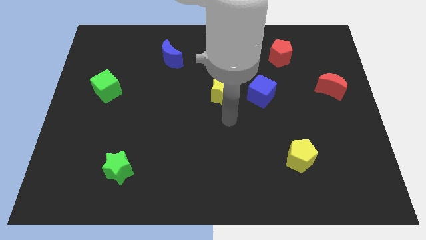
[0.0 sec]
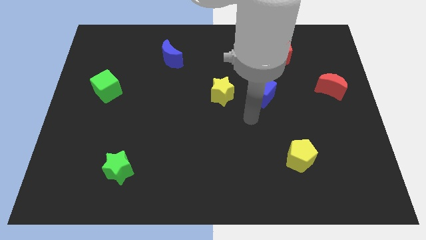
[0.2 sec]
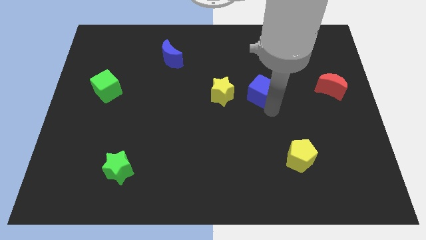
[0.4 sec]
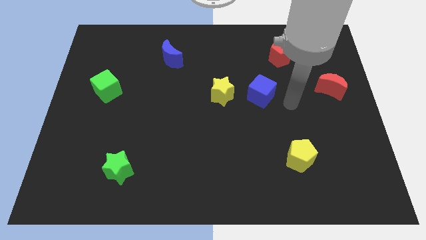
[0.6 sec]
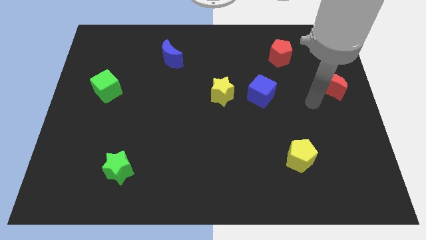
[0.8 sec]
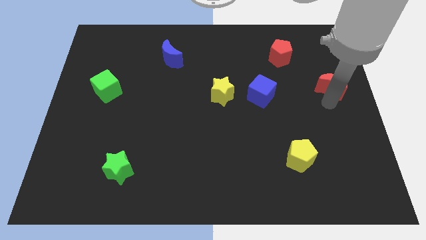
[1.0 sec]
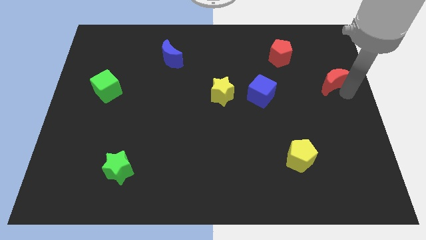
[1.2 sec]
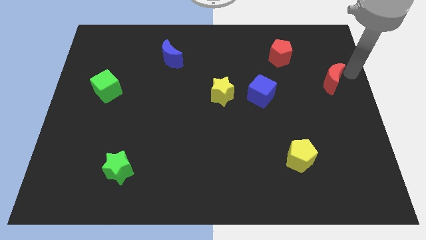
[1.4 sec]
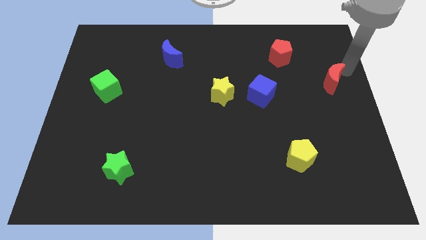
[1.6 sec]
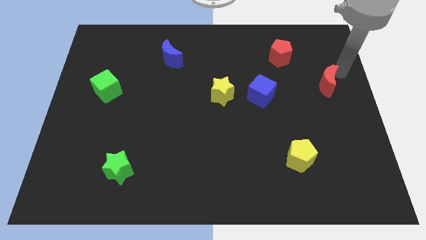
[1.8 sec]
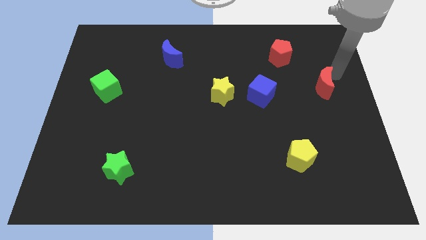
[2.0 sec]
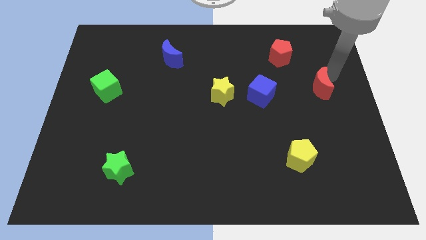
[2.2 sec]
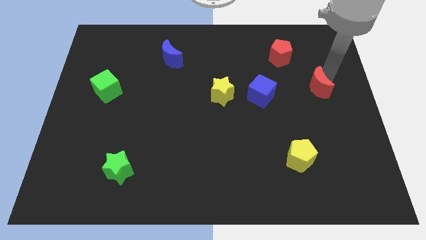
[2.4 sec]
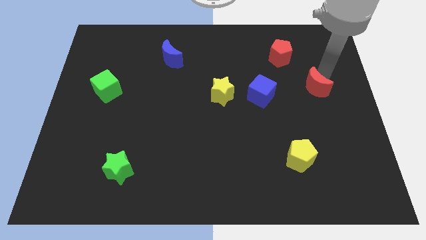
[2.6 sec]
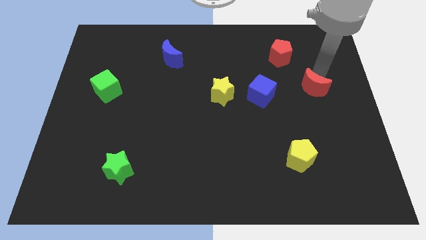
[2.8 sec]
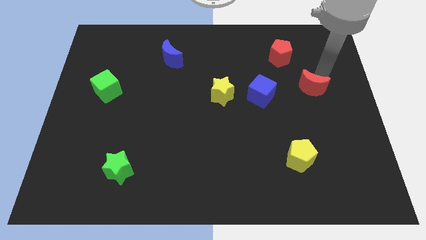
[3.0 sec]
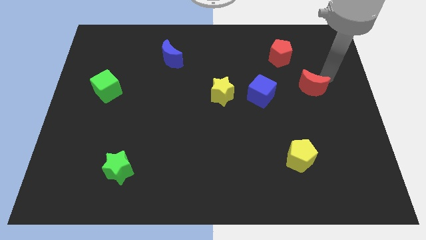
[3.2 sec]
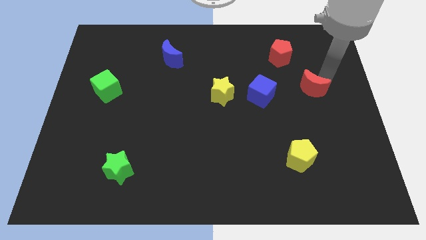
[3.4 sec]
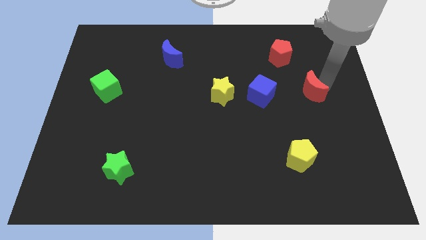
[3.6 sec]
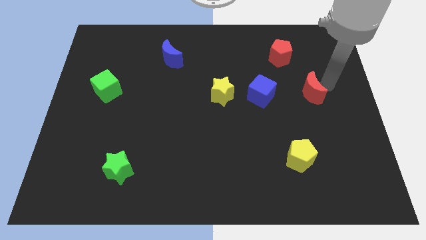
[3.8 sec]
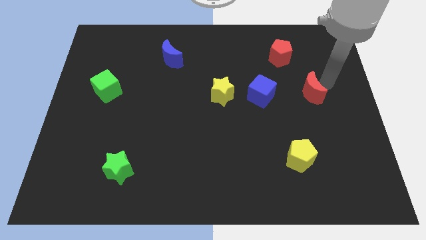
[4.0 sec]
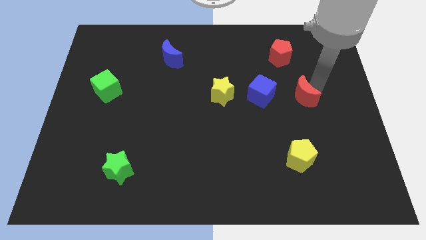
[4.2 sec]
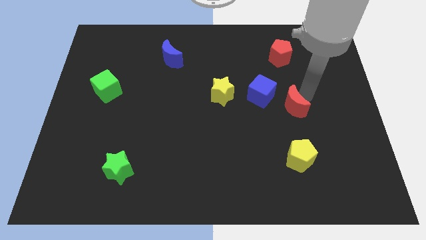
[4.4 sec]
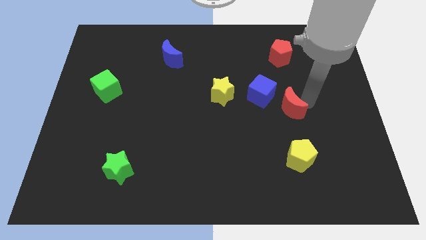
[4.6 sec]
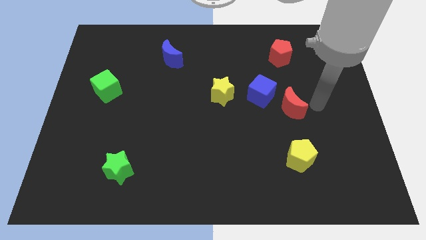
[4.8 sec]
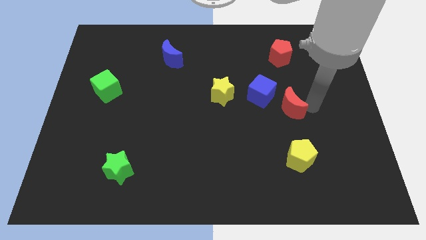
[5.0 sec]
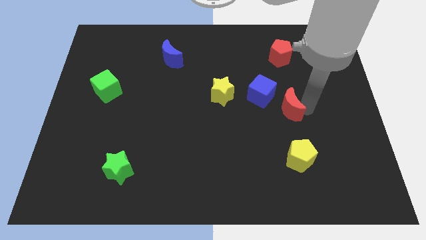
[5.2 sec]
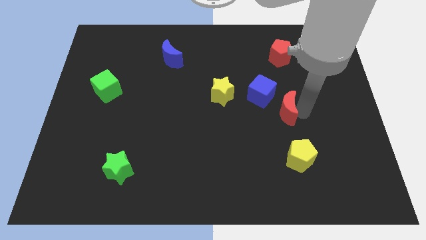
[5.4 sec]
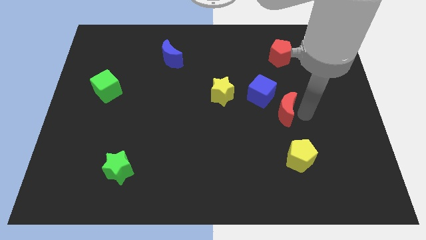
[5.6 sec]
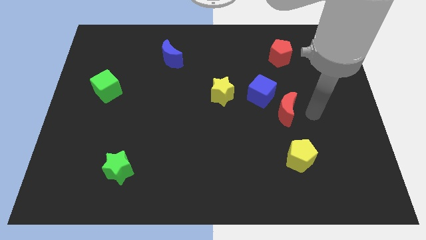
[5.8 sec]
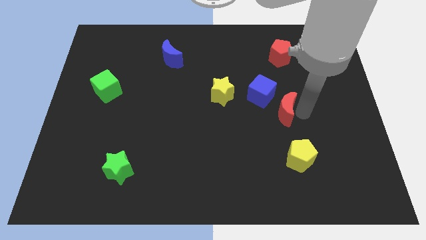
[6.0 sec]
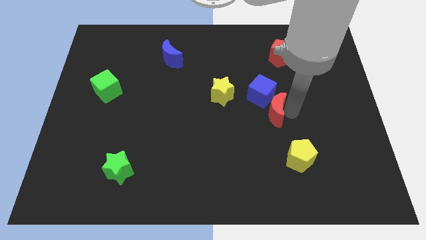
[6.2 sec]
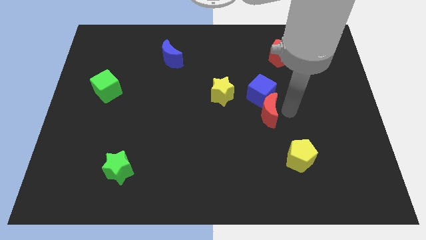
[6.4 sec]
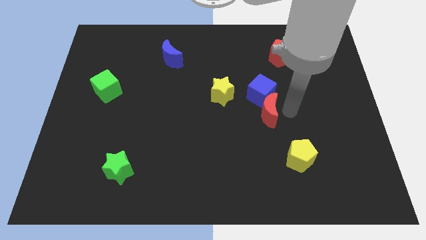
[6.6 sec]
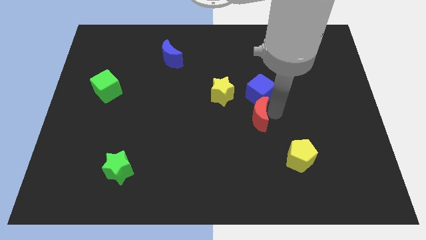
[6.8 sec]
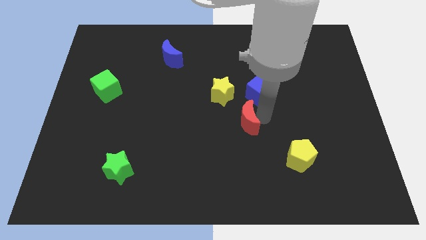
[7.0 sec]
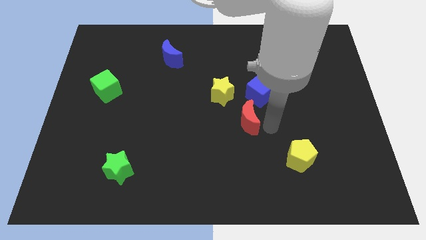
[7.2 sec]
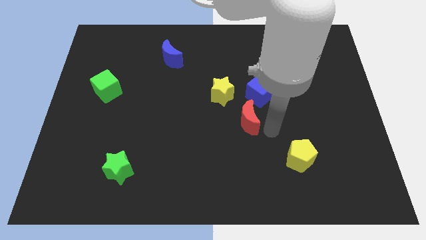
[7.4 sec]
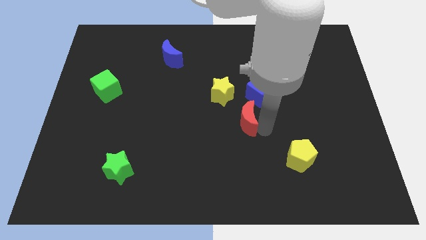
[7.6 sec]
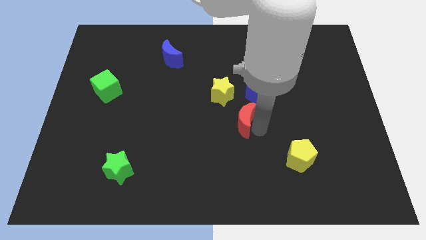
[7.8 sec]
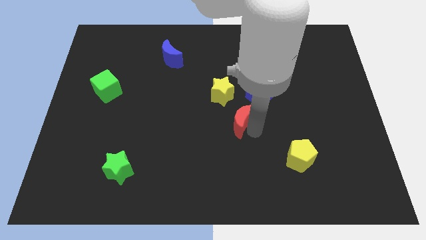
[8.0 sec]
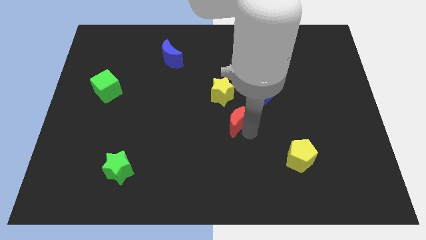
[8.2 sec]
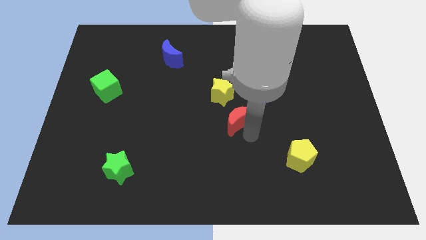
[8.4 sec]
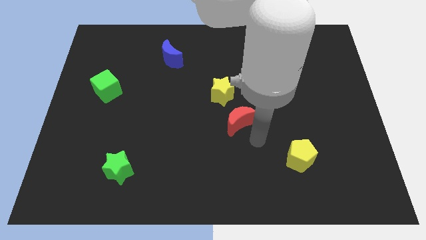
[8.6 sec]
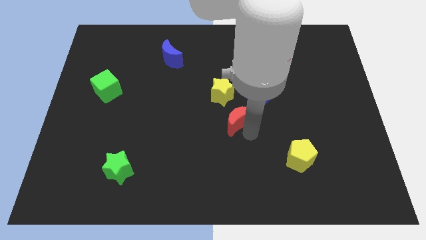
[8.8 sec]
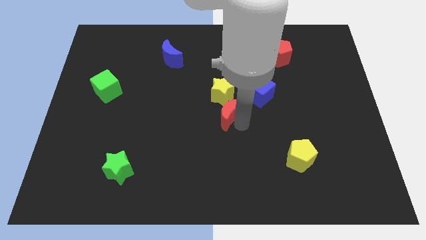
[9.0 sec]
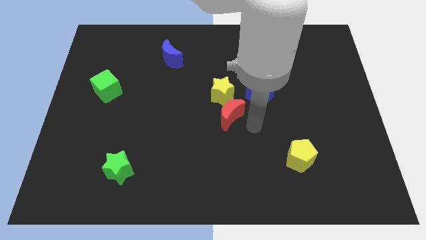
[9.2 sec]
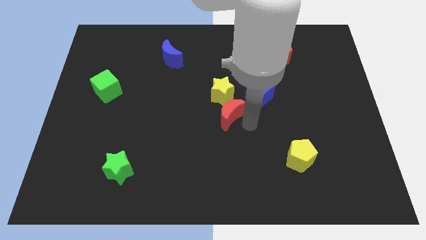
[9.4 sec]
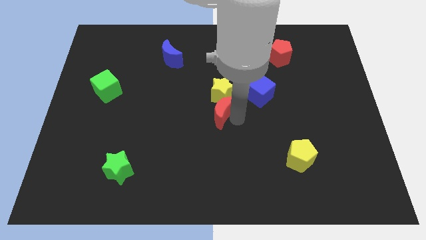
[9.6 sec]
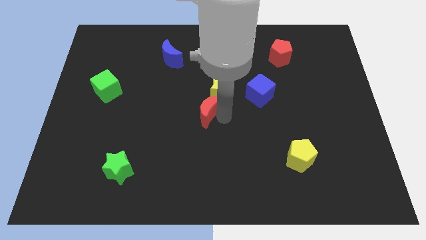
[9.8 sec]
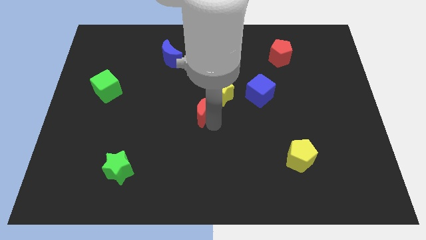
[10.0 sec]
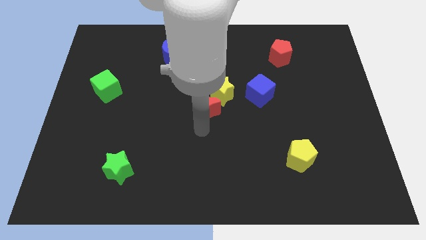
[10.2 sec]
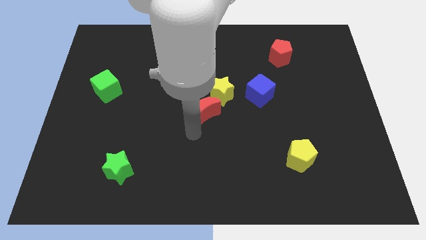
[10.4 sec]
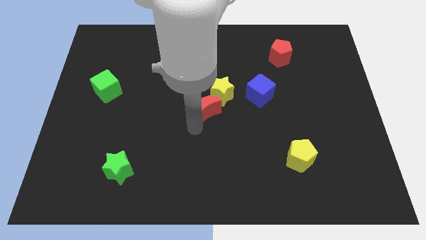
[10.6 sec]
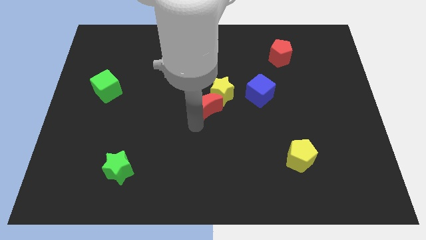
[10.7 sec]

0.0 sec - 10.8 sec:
put the red moon just left of the blue cube

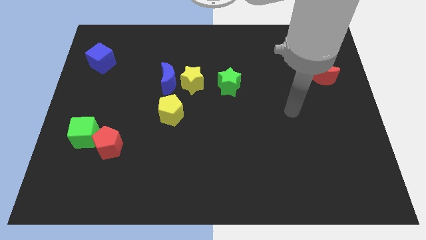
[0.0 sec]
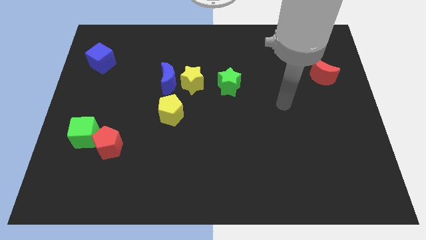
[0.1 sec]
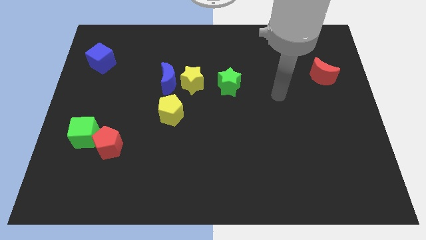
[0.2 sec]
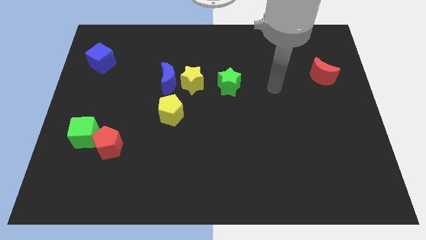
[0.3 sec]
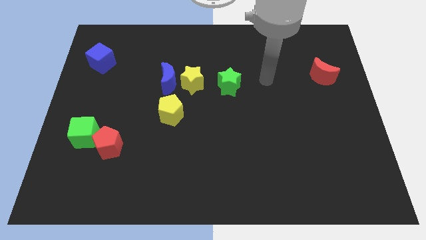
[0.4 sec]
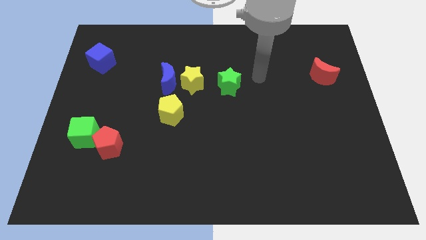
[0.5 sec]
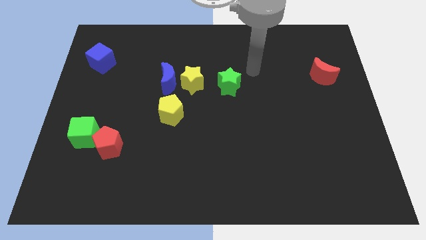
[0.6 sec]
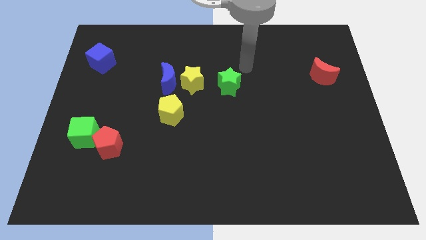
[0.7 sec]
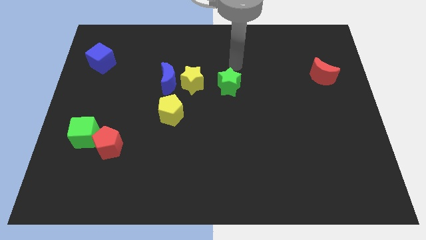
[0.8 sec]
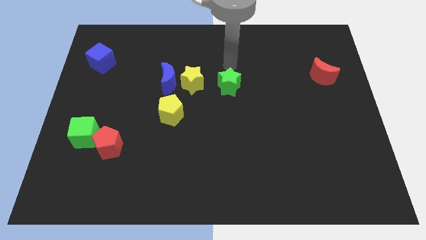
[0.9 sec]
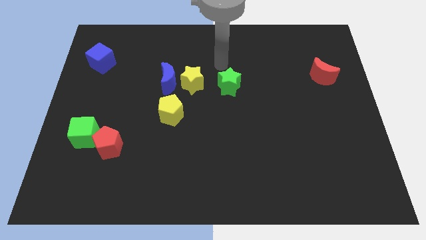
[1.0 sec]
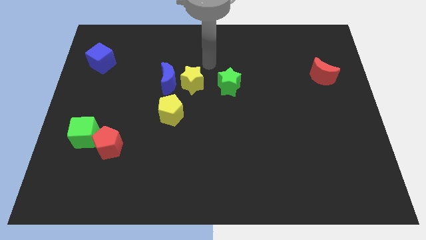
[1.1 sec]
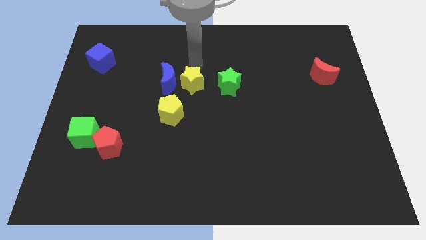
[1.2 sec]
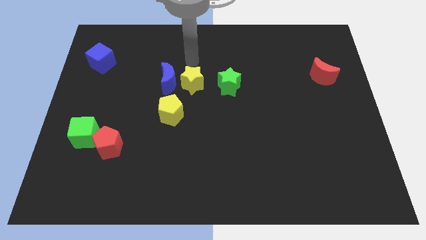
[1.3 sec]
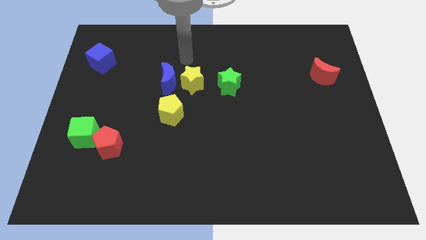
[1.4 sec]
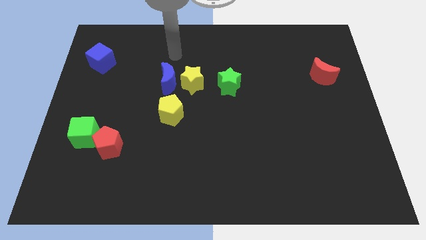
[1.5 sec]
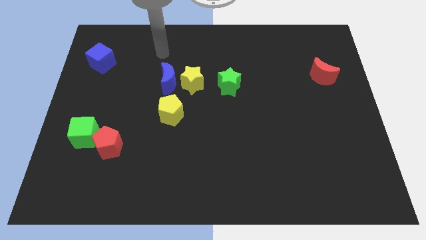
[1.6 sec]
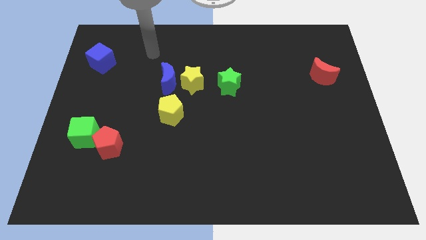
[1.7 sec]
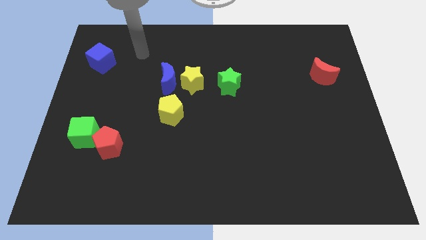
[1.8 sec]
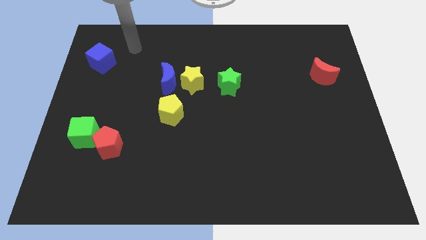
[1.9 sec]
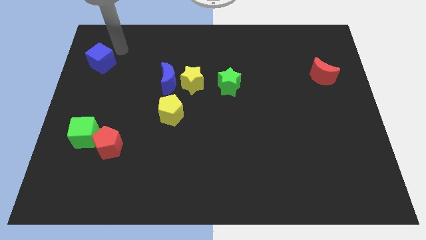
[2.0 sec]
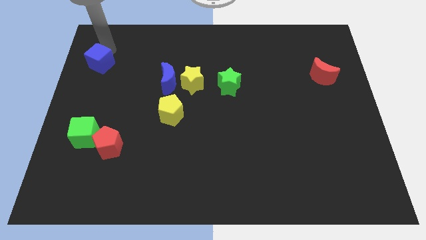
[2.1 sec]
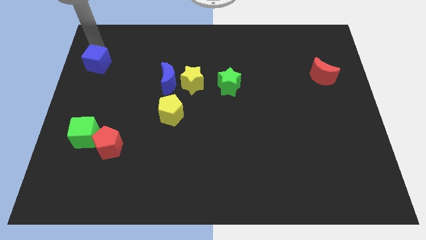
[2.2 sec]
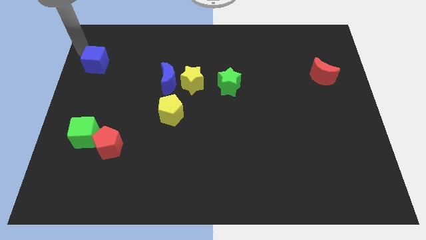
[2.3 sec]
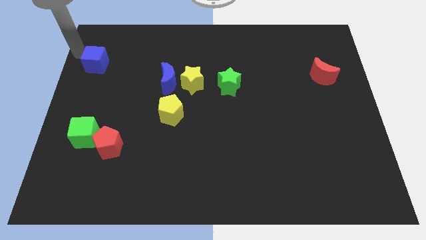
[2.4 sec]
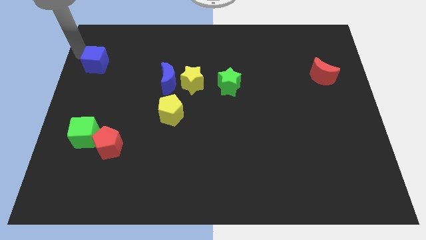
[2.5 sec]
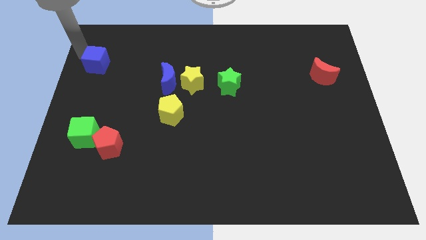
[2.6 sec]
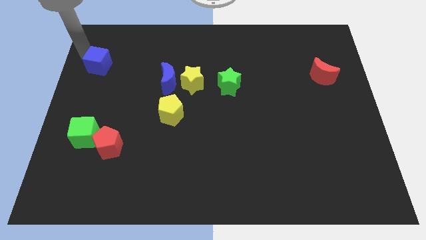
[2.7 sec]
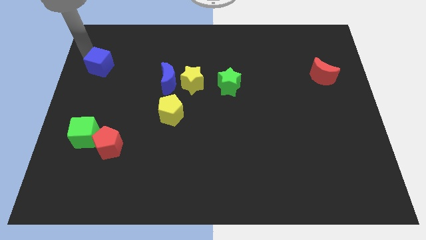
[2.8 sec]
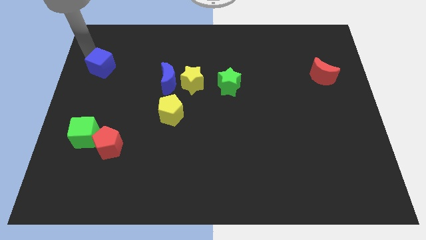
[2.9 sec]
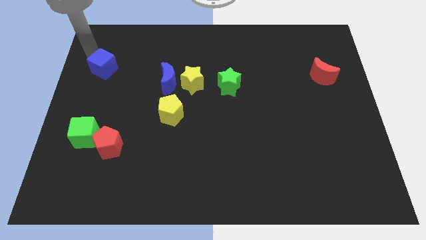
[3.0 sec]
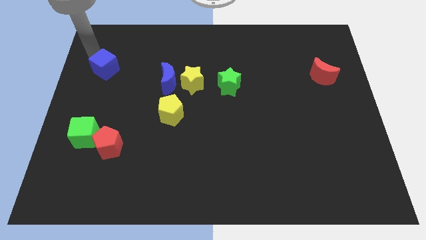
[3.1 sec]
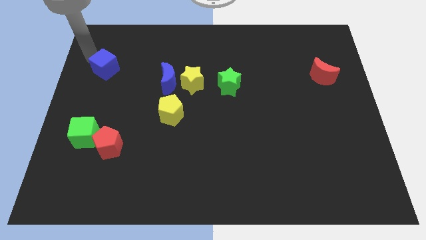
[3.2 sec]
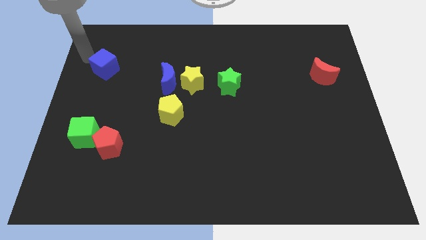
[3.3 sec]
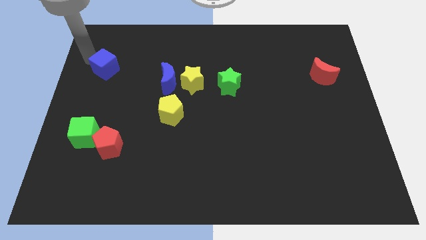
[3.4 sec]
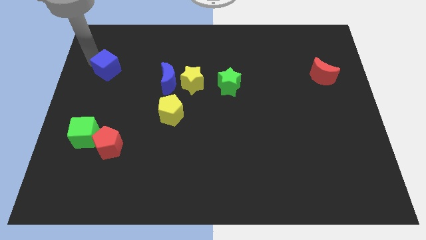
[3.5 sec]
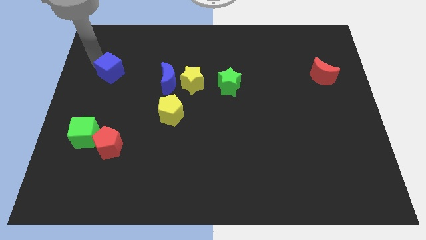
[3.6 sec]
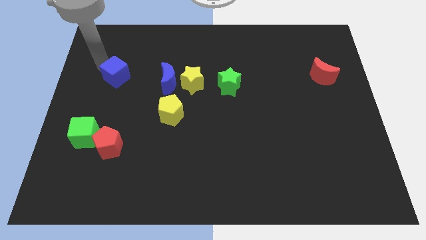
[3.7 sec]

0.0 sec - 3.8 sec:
slide the blue cube to the left of the blue moon
